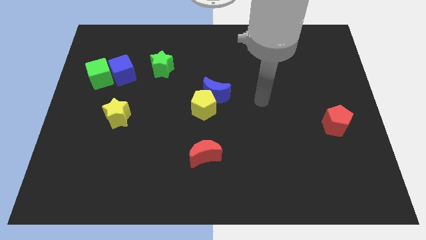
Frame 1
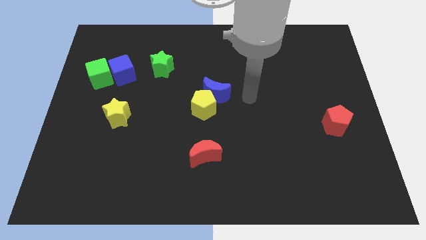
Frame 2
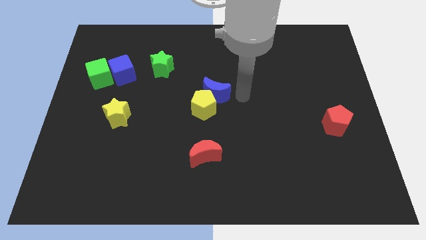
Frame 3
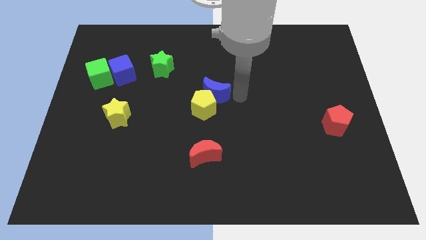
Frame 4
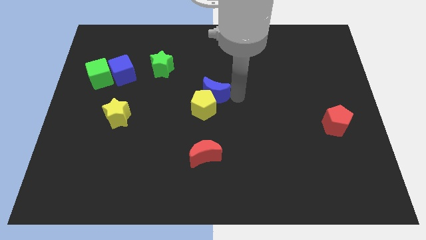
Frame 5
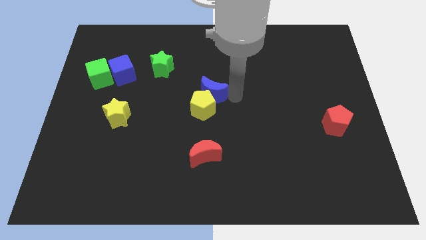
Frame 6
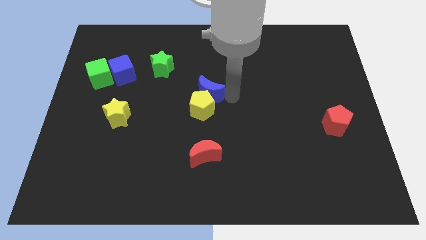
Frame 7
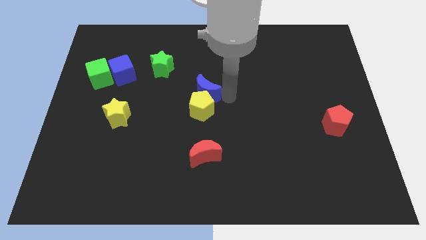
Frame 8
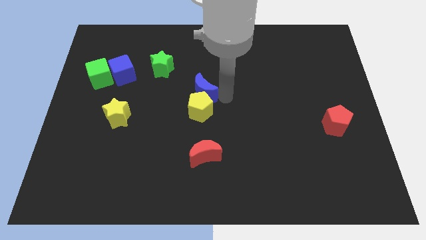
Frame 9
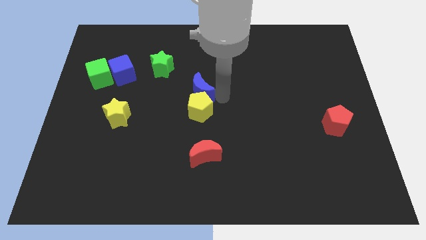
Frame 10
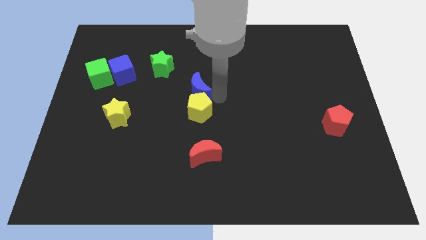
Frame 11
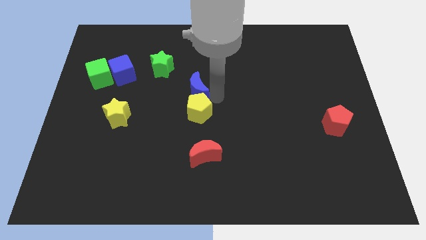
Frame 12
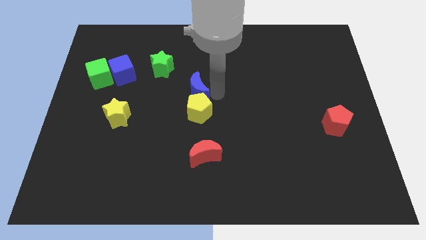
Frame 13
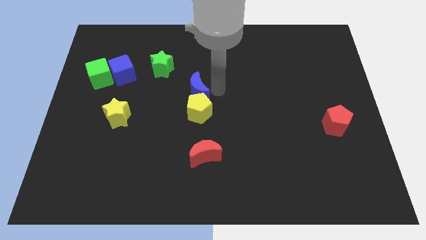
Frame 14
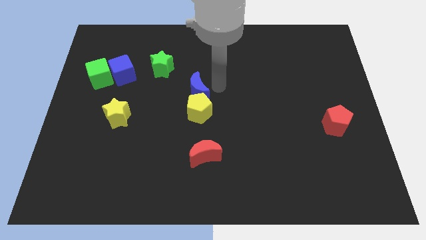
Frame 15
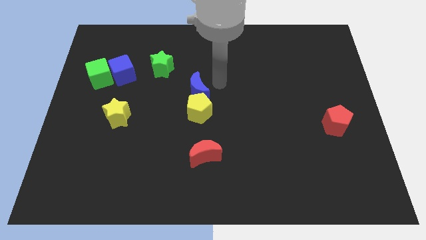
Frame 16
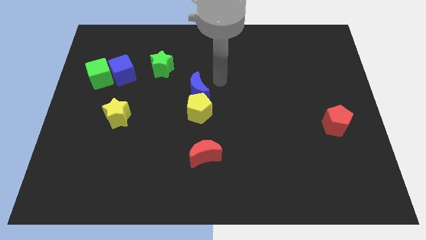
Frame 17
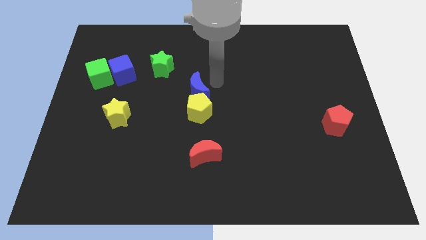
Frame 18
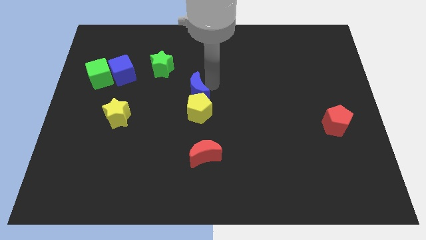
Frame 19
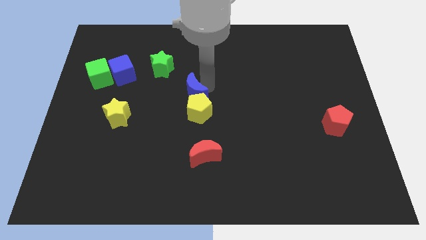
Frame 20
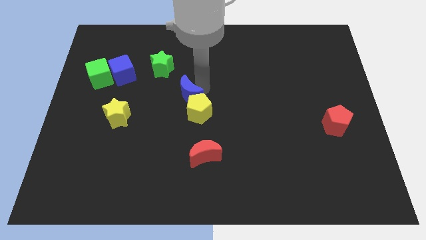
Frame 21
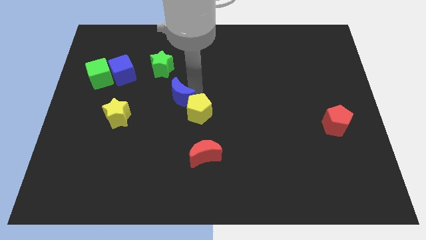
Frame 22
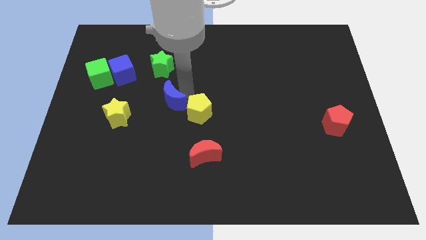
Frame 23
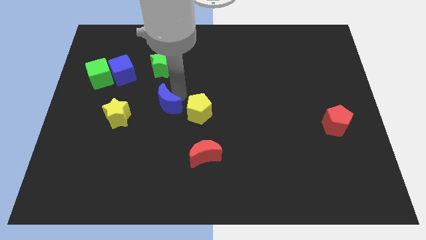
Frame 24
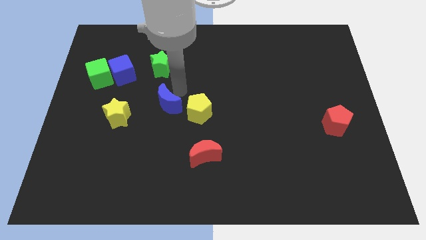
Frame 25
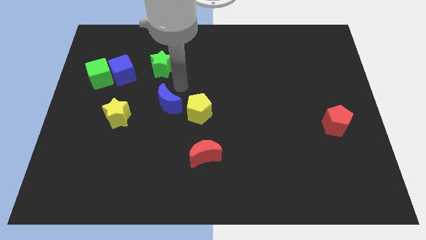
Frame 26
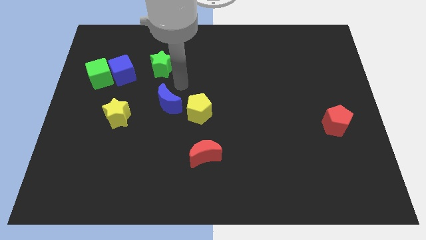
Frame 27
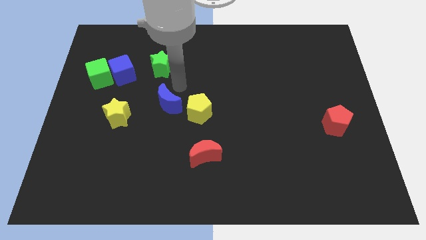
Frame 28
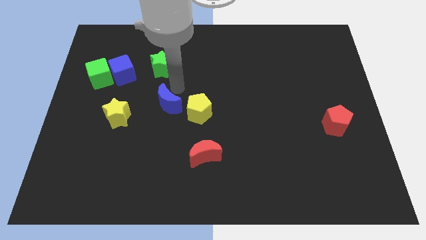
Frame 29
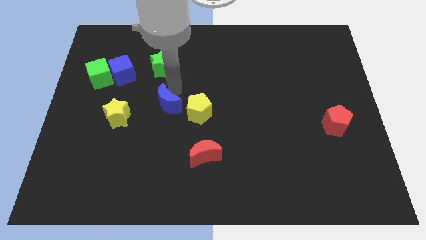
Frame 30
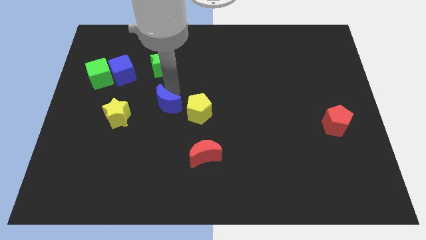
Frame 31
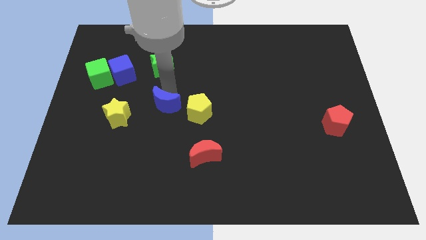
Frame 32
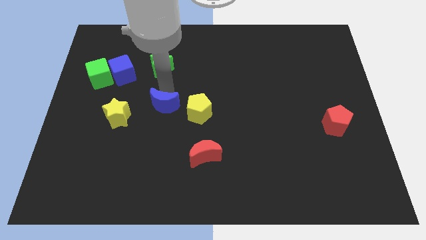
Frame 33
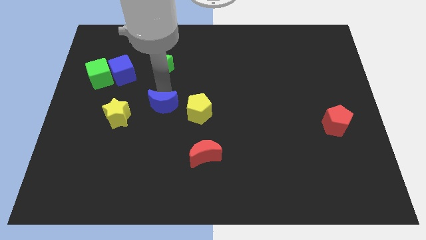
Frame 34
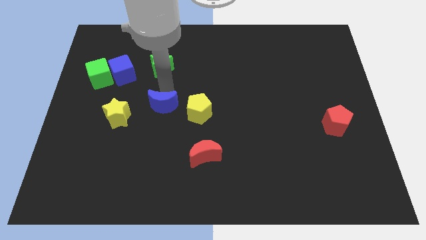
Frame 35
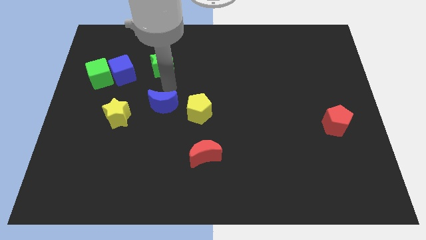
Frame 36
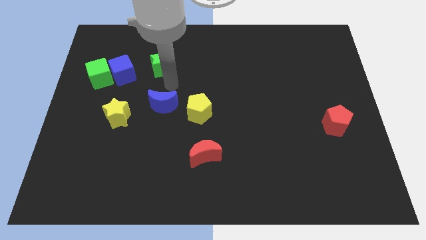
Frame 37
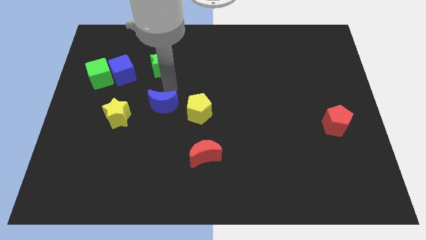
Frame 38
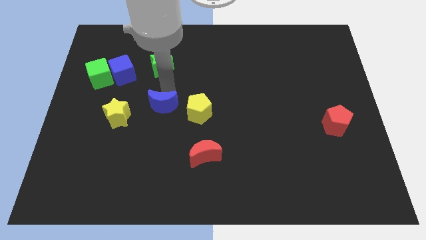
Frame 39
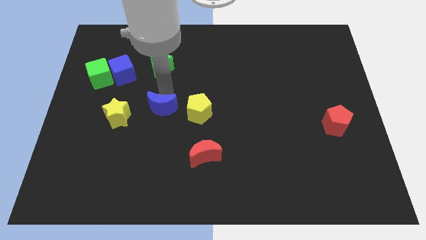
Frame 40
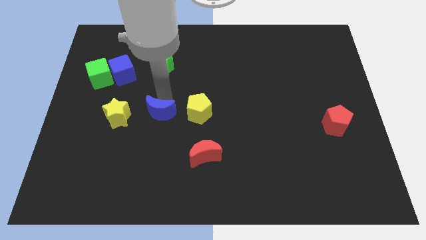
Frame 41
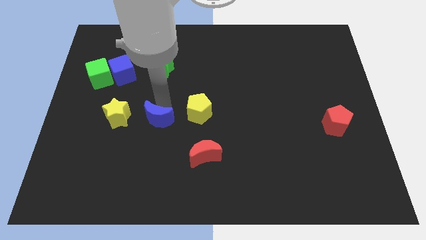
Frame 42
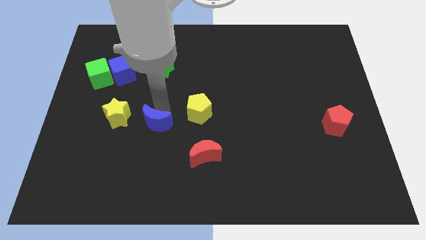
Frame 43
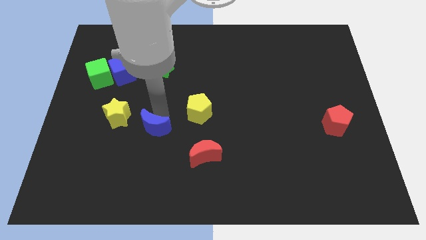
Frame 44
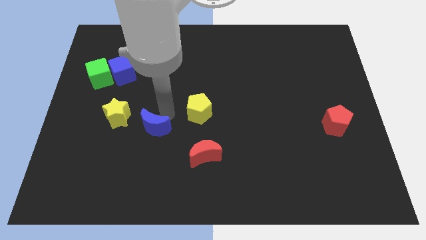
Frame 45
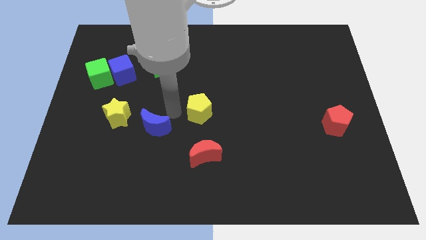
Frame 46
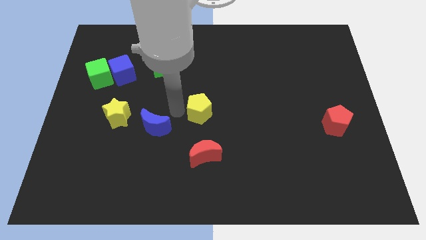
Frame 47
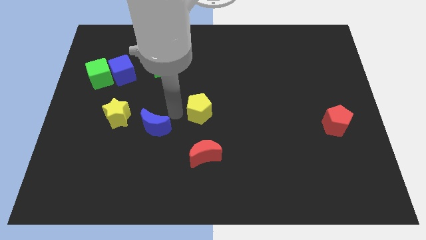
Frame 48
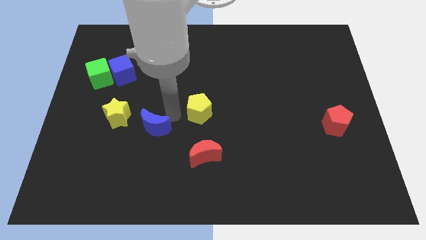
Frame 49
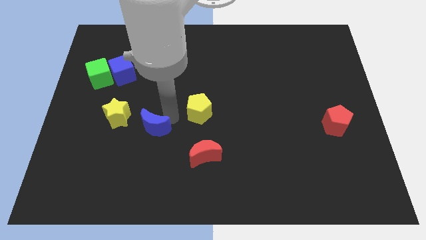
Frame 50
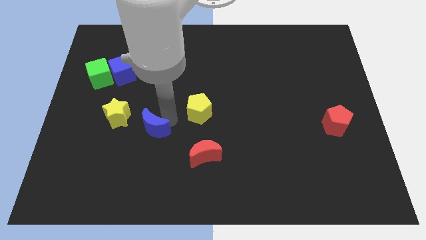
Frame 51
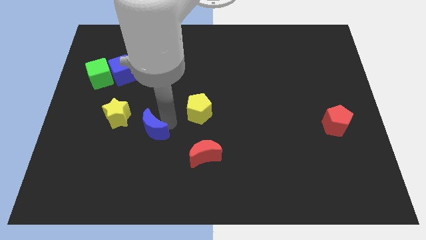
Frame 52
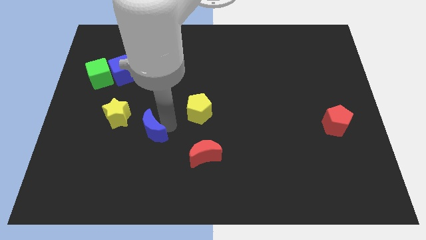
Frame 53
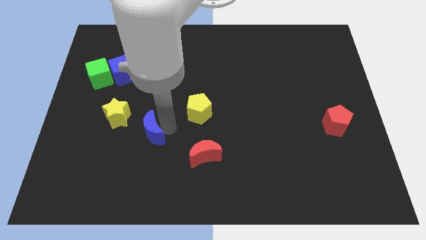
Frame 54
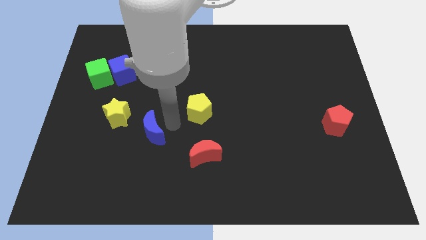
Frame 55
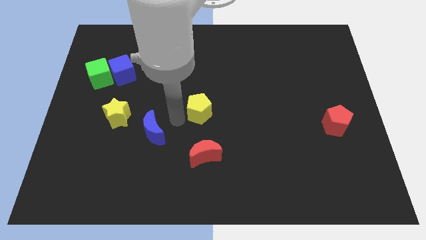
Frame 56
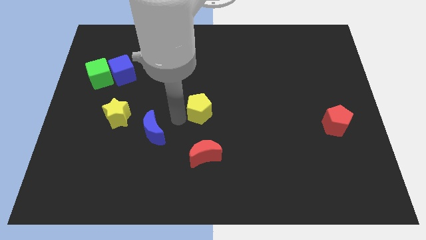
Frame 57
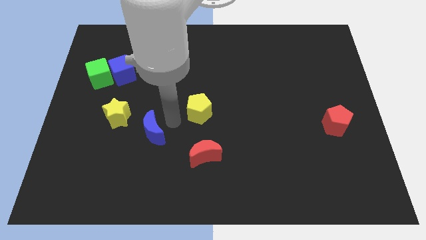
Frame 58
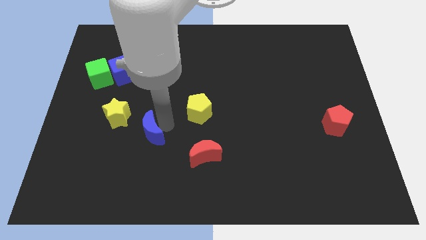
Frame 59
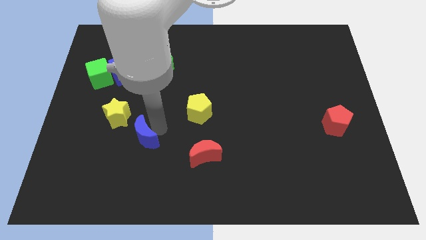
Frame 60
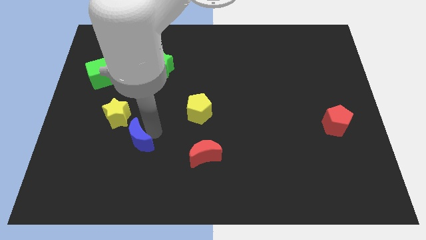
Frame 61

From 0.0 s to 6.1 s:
move the blue moon diagonally downwards and to the left

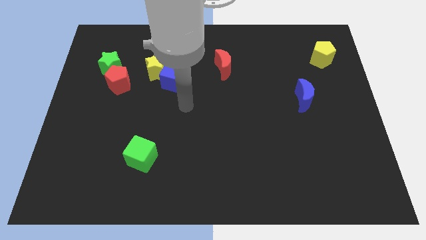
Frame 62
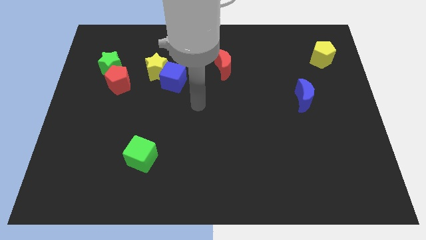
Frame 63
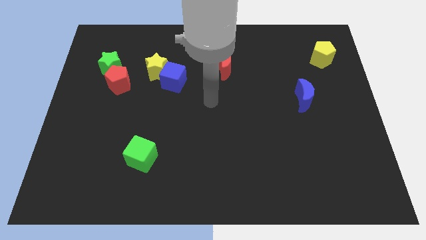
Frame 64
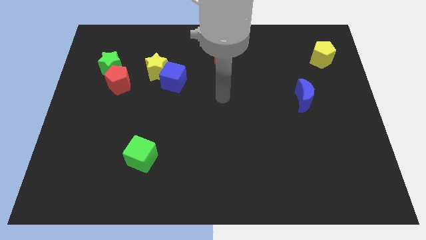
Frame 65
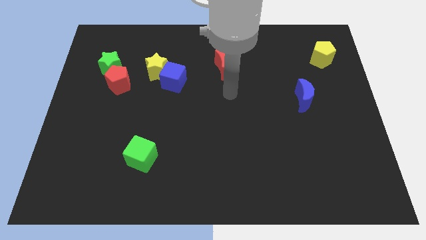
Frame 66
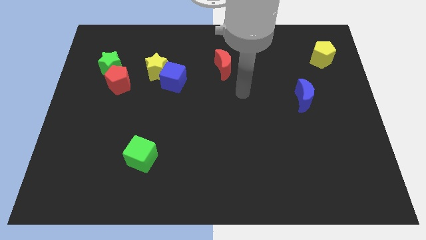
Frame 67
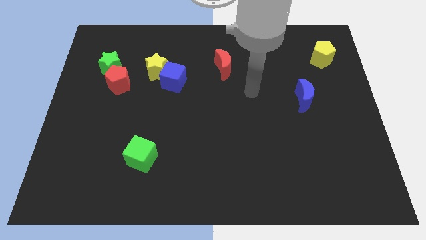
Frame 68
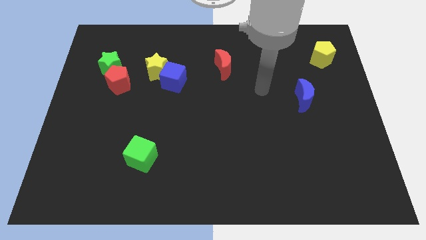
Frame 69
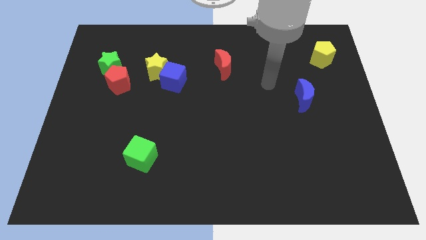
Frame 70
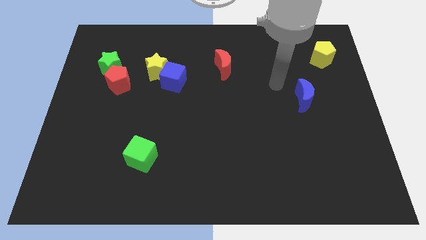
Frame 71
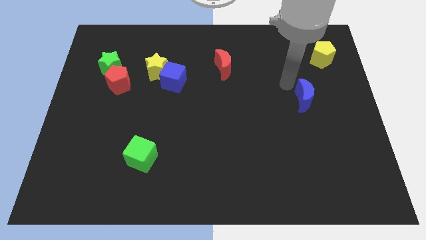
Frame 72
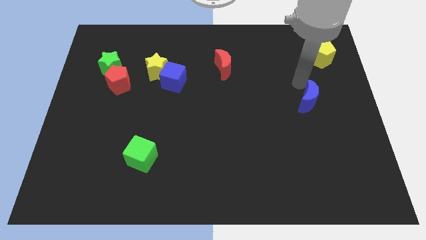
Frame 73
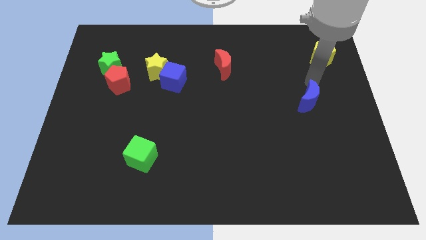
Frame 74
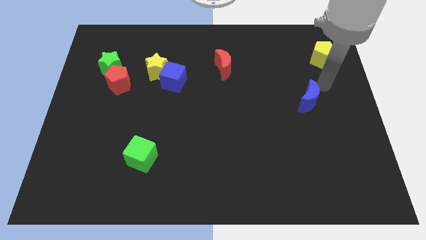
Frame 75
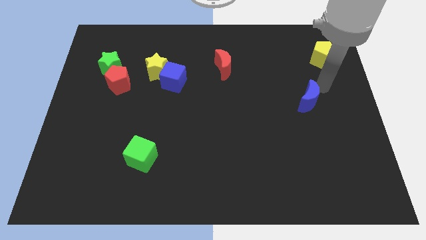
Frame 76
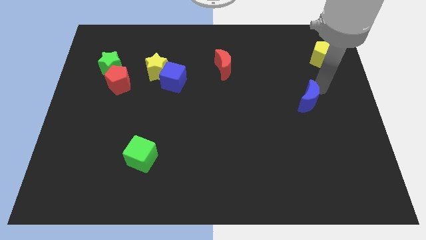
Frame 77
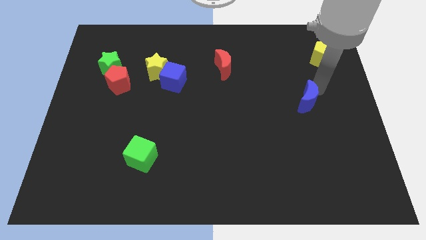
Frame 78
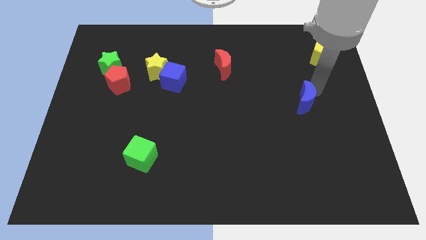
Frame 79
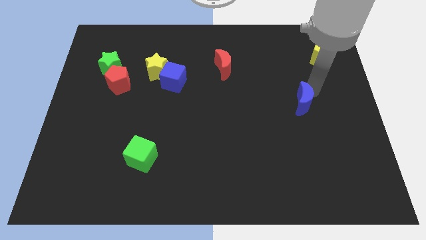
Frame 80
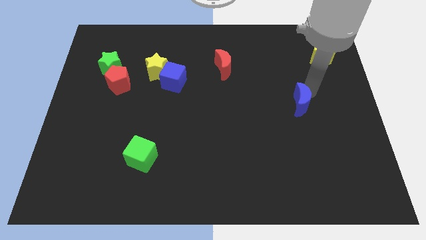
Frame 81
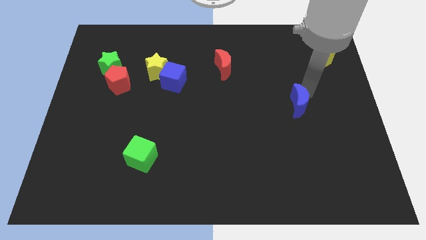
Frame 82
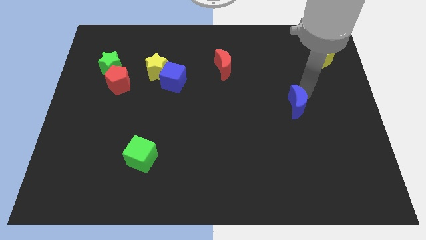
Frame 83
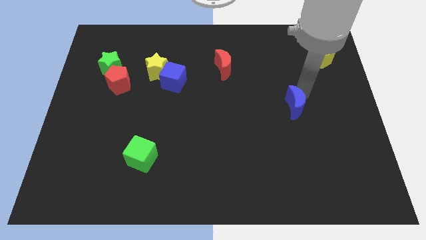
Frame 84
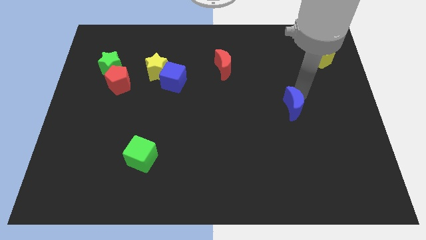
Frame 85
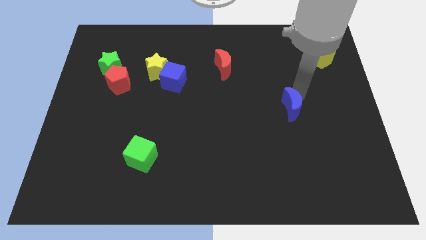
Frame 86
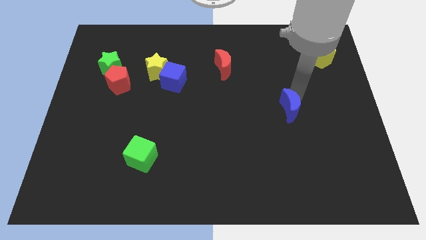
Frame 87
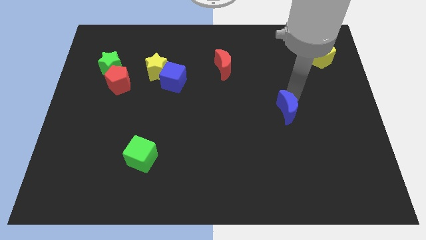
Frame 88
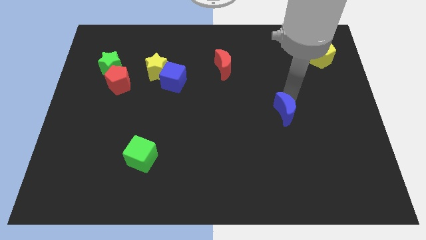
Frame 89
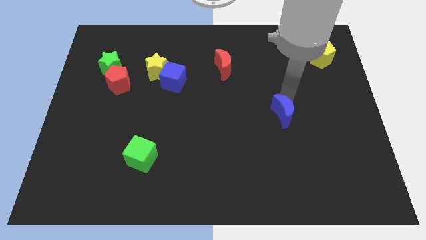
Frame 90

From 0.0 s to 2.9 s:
slightly move the blue moon diagonally downwards and to the left
